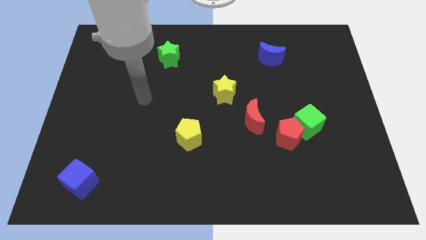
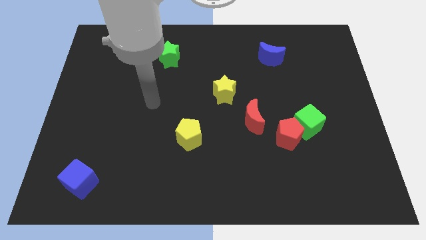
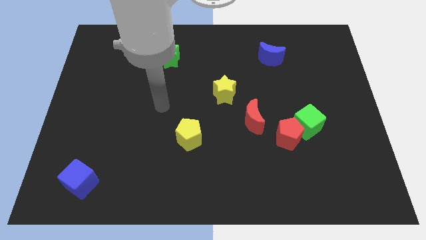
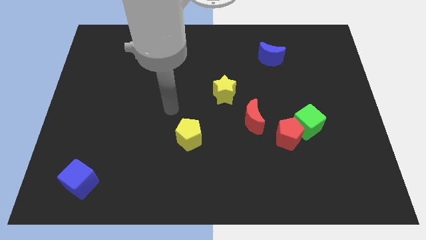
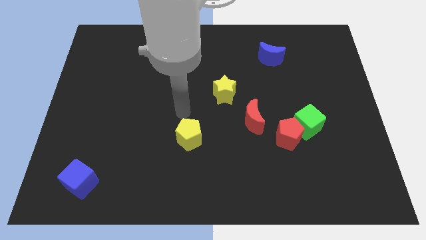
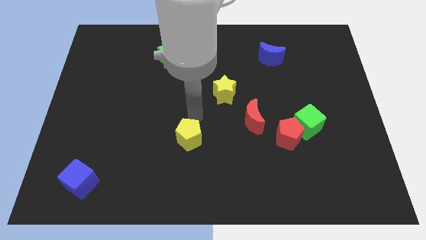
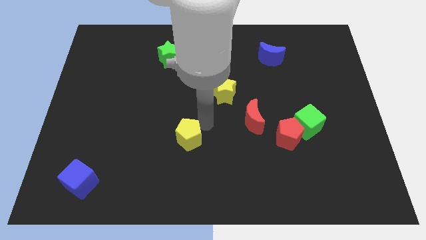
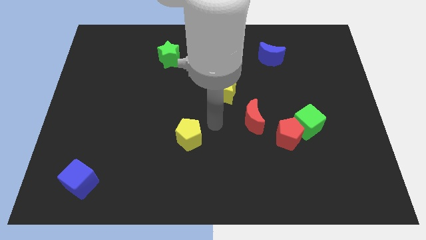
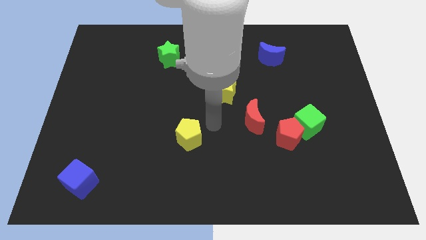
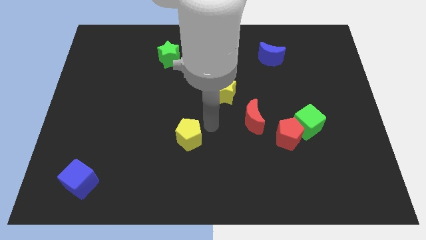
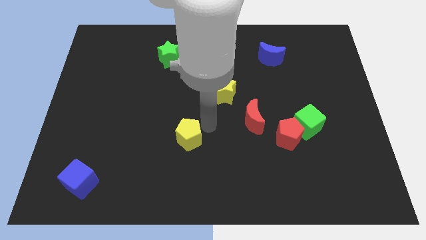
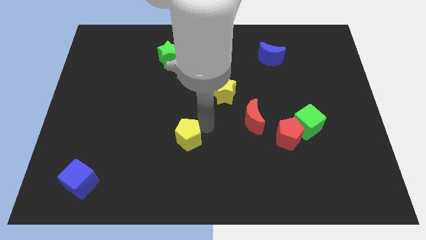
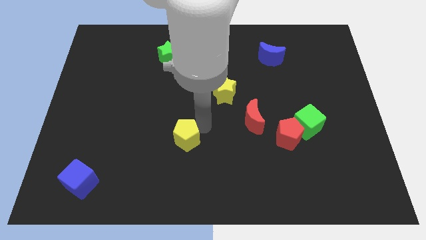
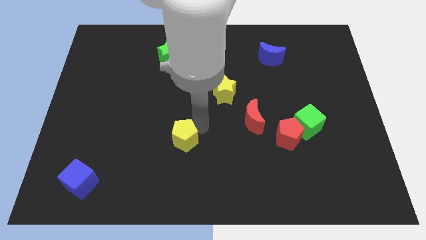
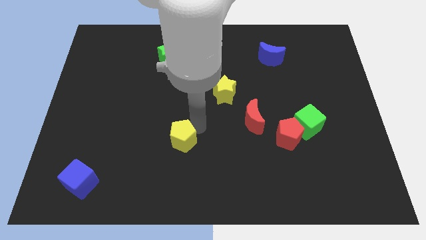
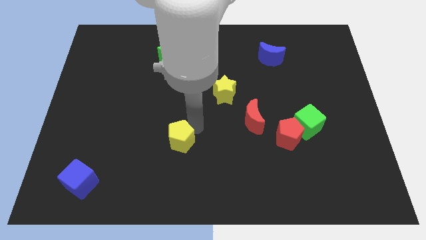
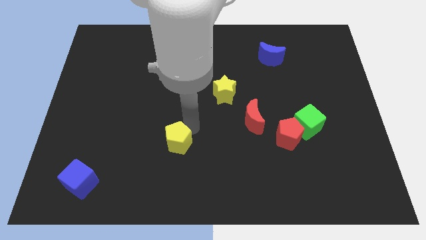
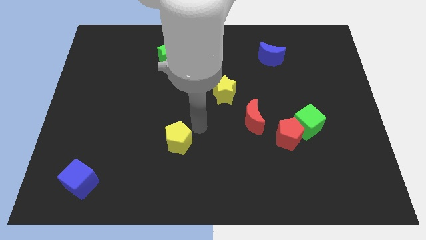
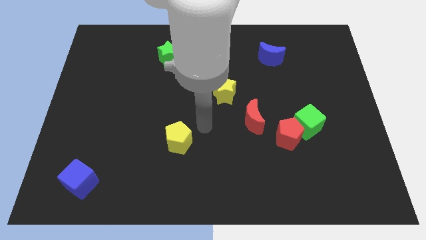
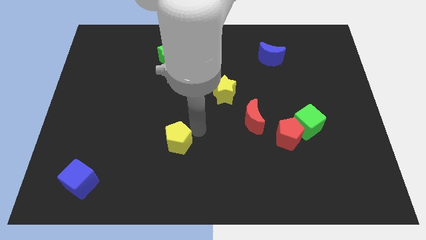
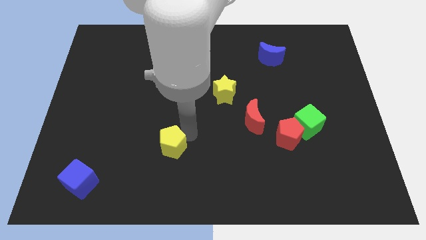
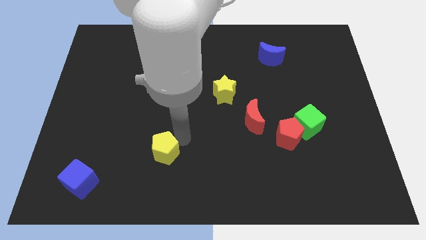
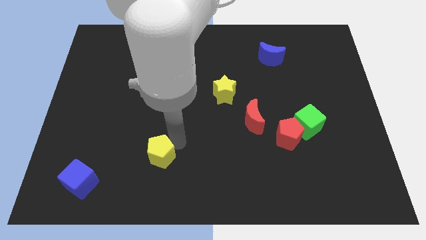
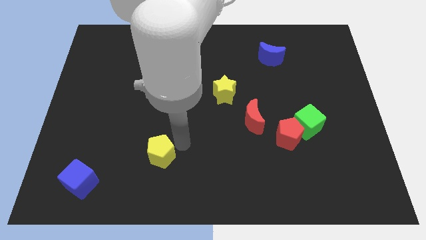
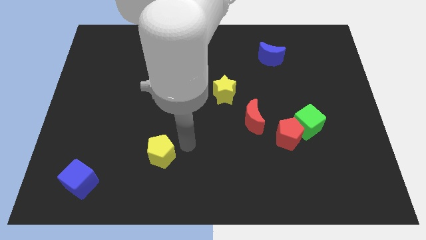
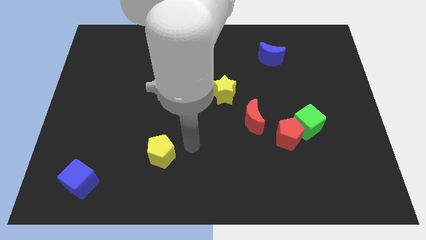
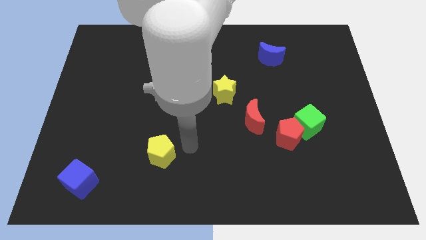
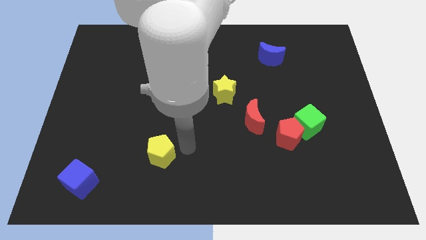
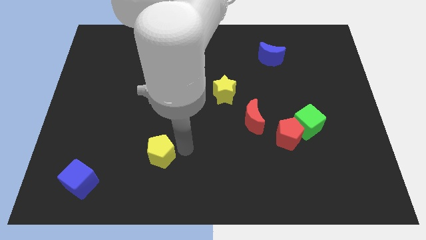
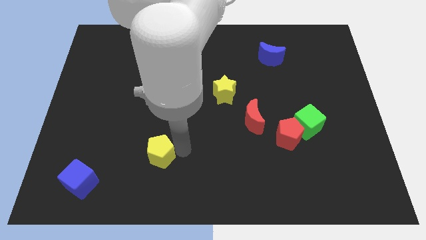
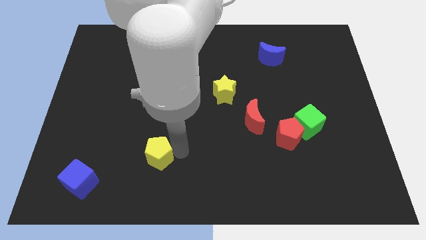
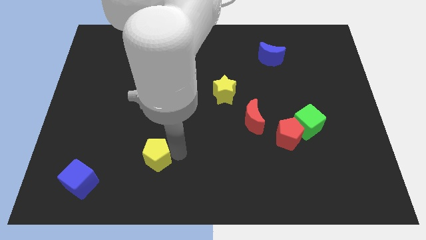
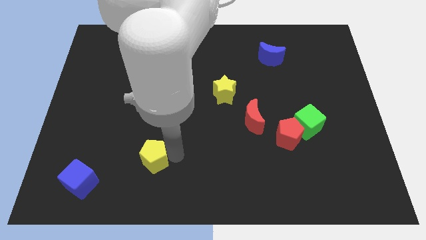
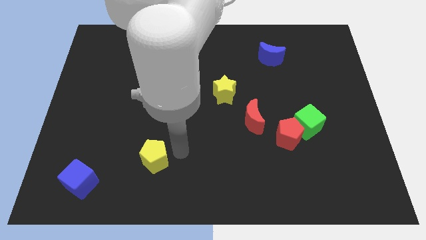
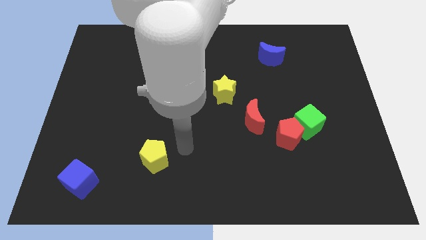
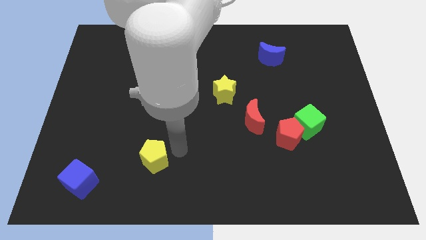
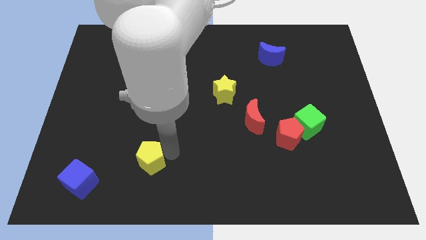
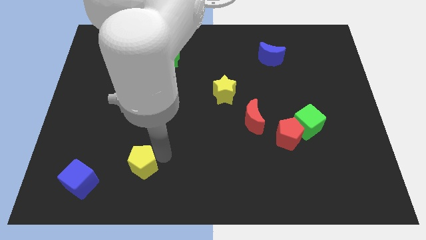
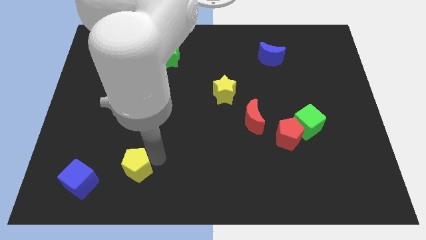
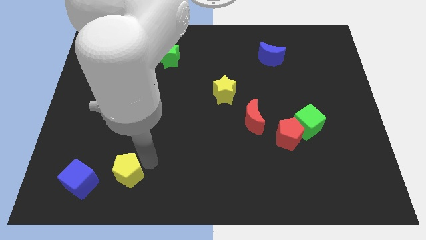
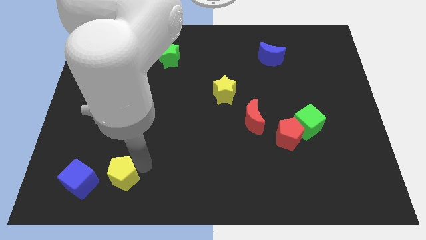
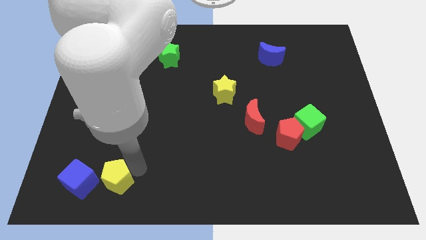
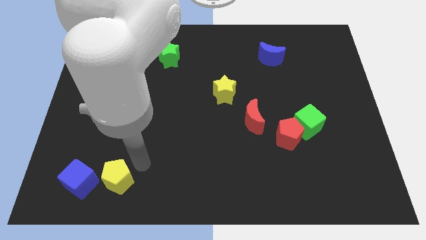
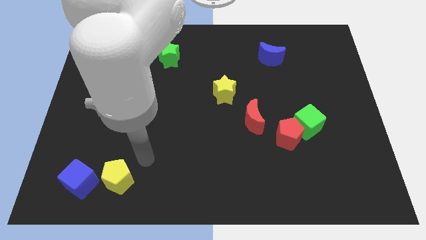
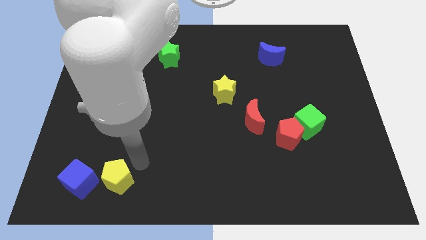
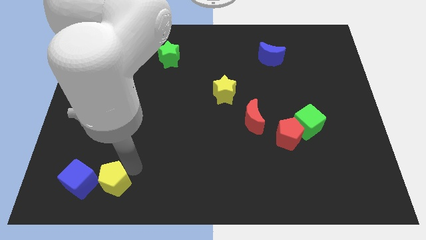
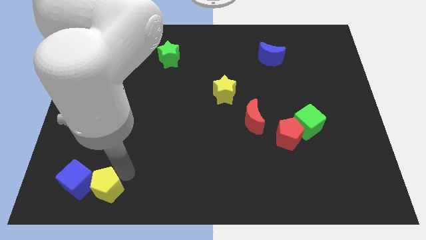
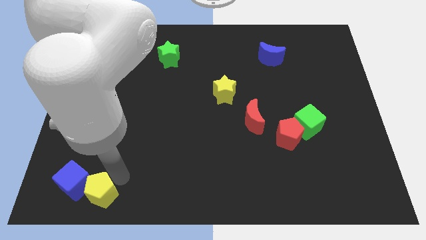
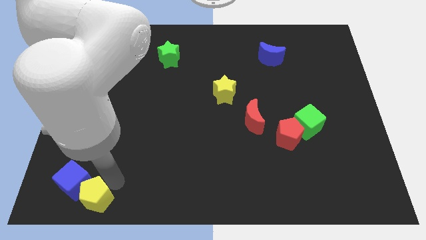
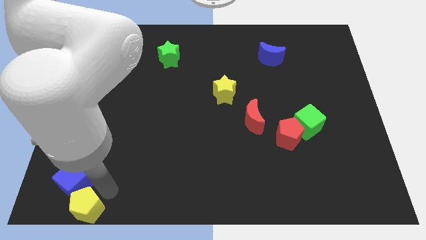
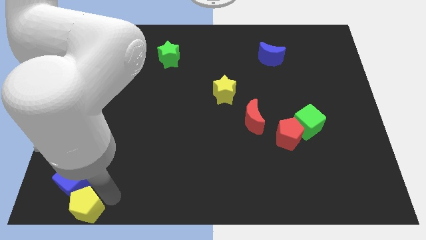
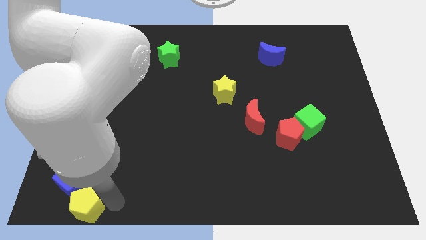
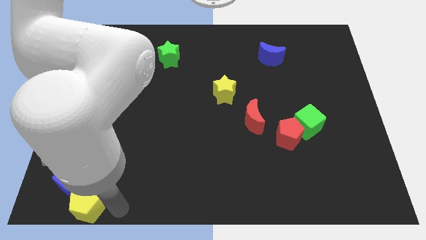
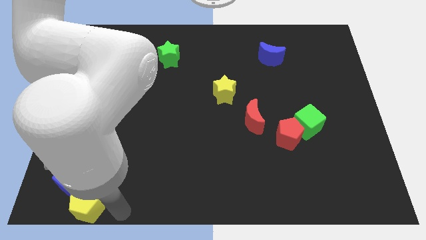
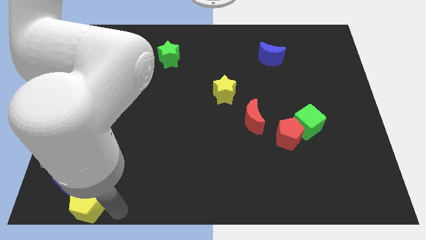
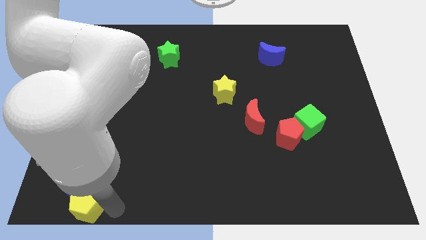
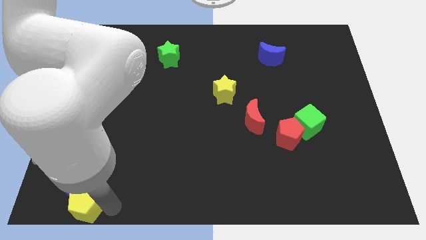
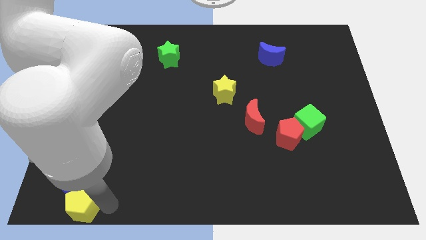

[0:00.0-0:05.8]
put the yellow pentagon to the lower left corner

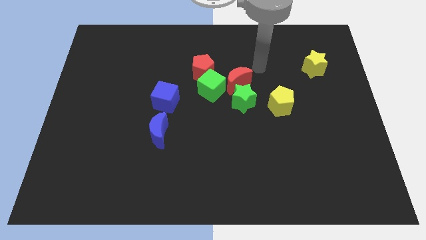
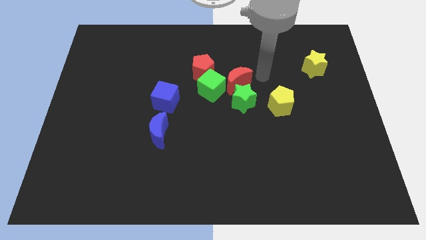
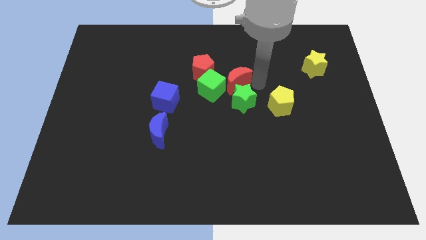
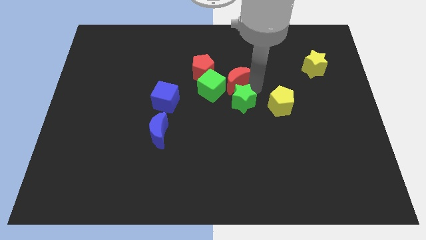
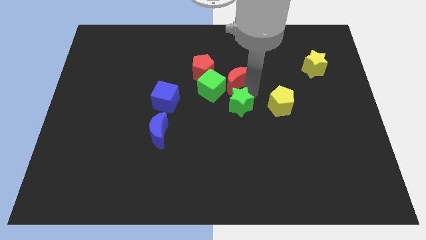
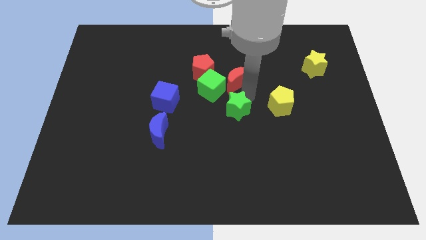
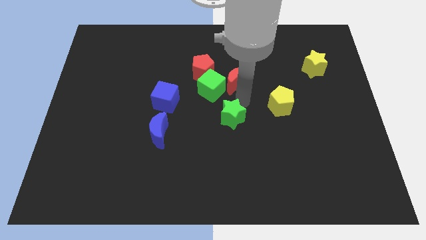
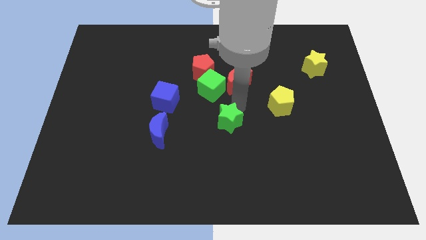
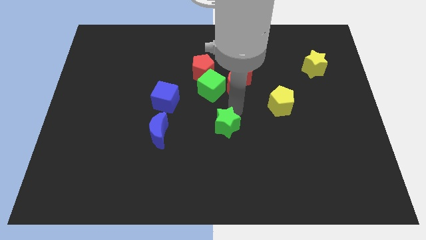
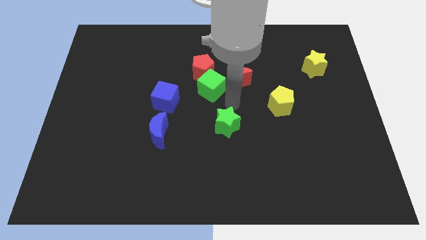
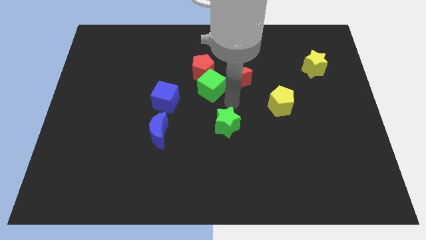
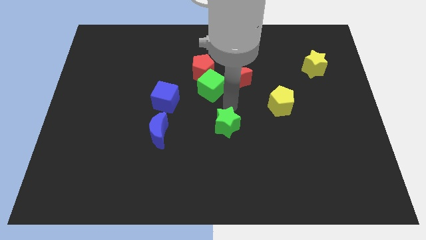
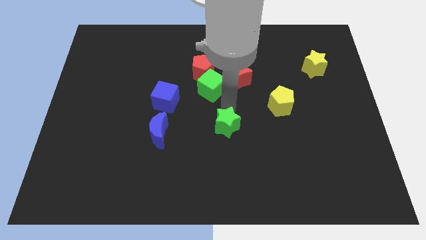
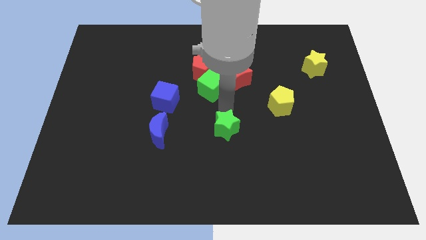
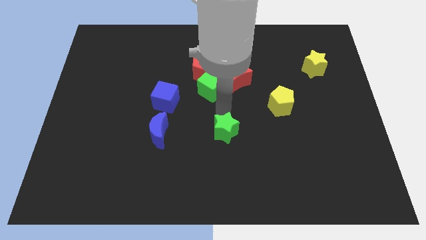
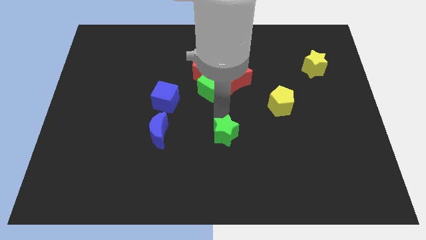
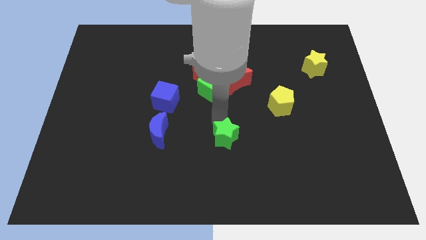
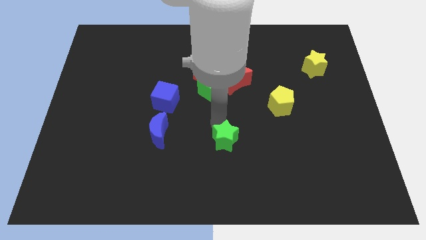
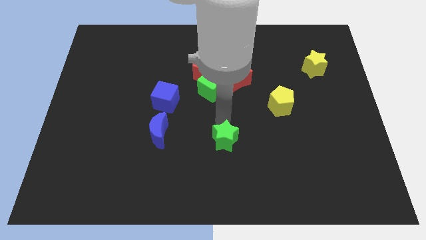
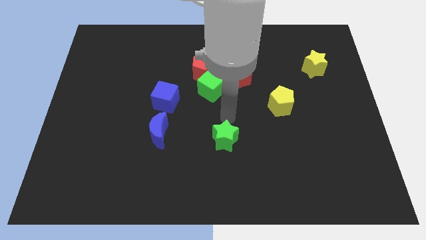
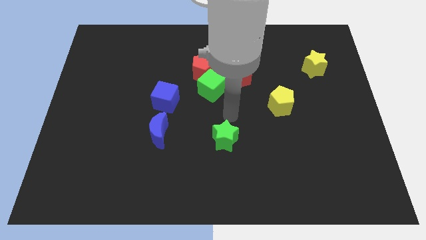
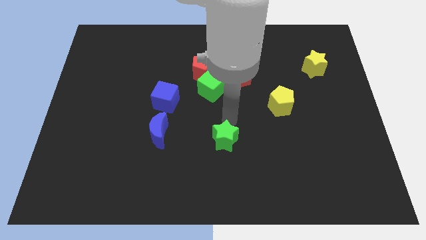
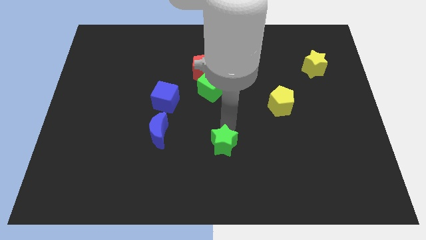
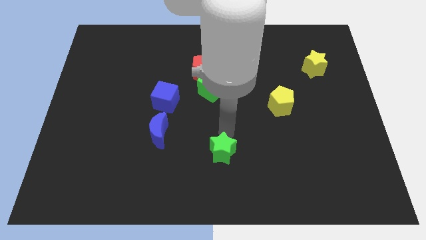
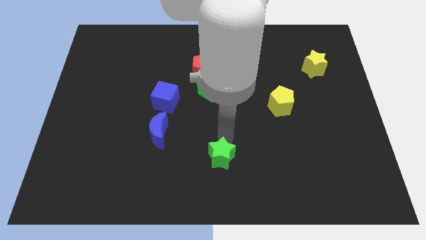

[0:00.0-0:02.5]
slide the green star to the bottom side
